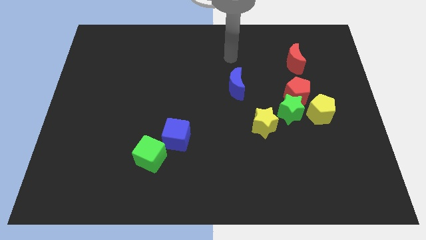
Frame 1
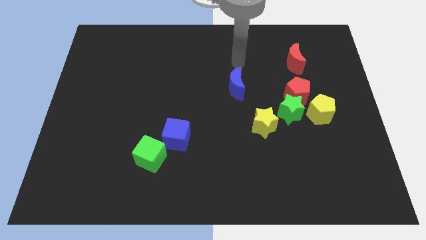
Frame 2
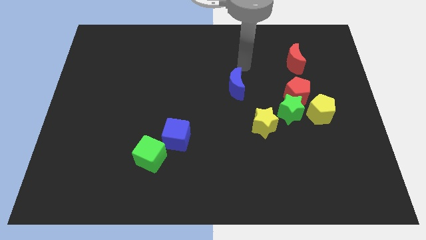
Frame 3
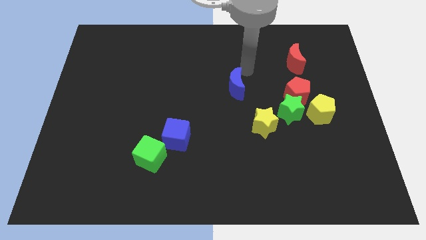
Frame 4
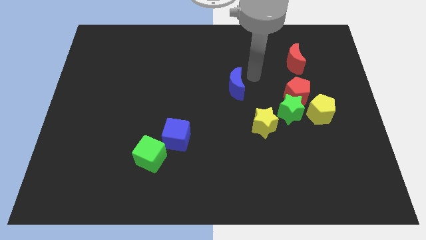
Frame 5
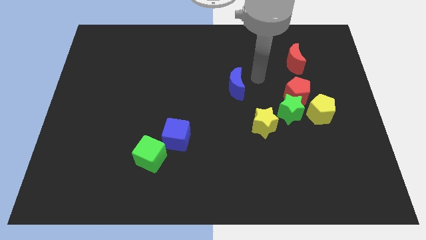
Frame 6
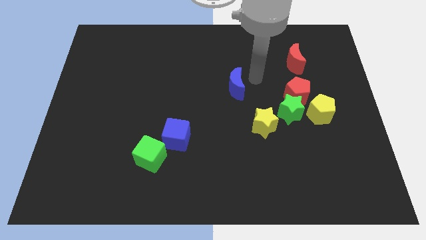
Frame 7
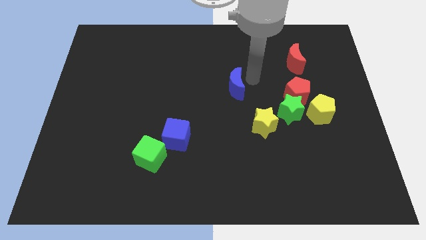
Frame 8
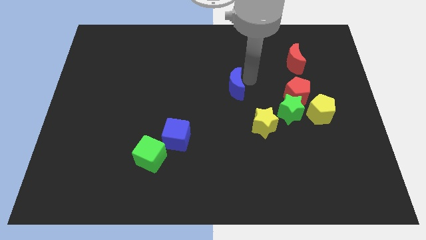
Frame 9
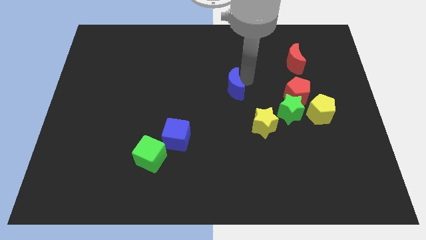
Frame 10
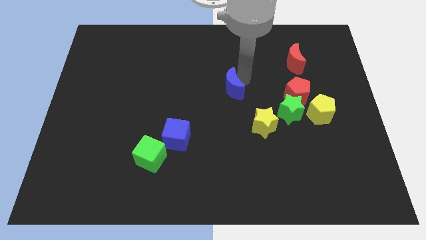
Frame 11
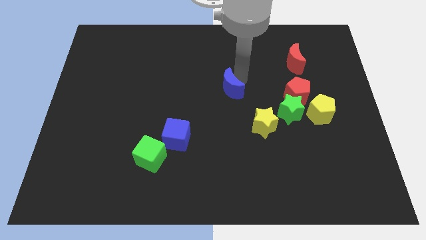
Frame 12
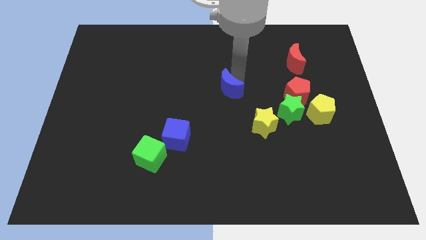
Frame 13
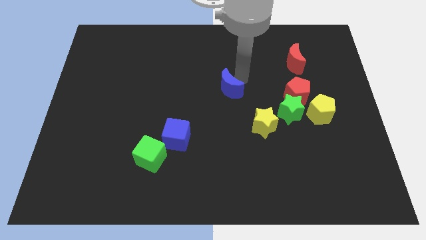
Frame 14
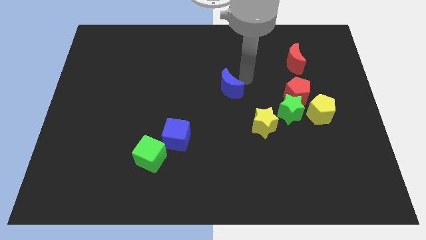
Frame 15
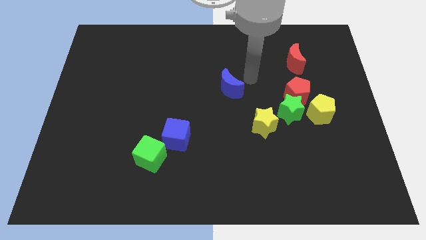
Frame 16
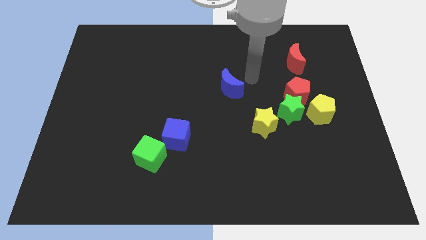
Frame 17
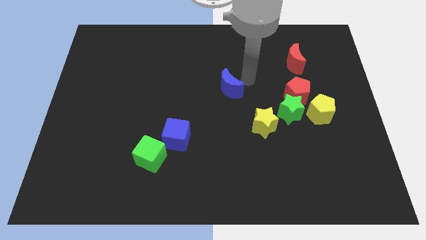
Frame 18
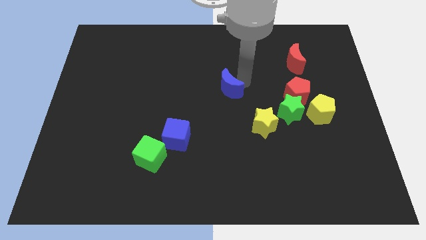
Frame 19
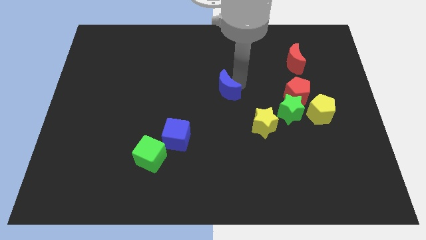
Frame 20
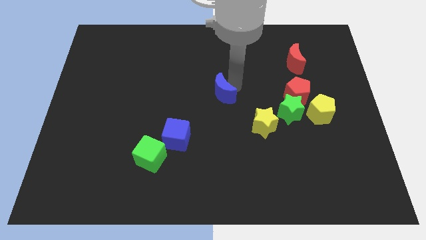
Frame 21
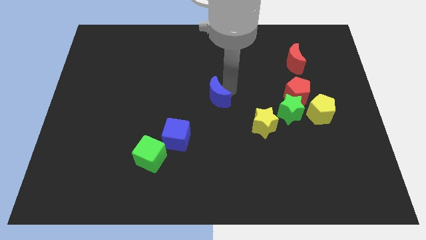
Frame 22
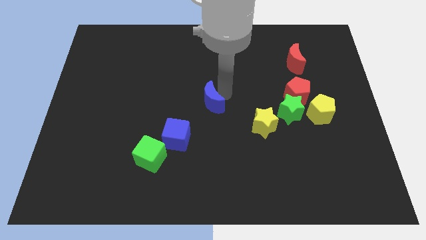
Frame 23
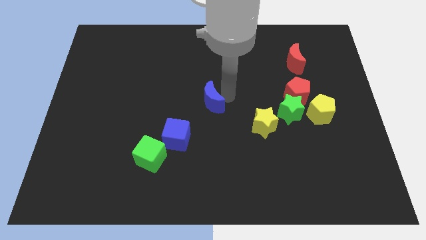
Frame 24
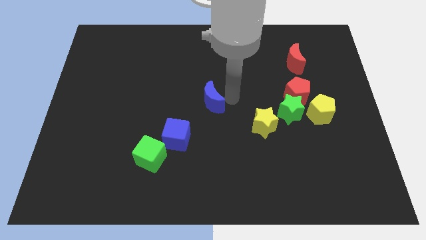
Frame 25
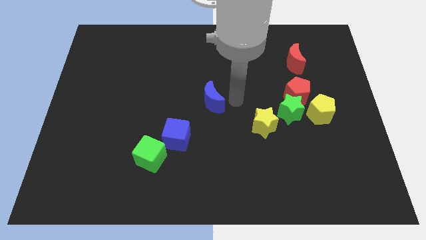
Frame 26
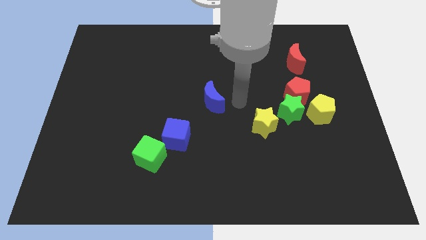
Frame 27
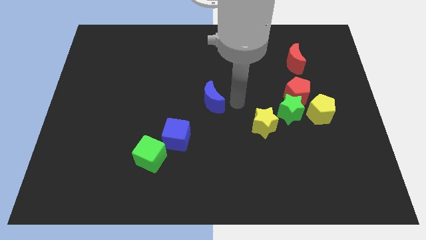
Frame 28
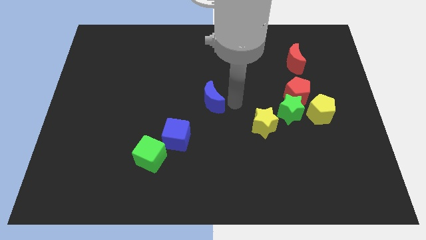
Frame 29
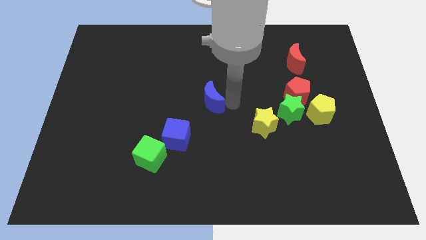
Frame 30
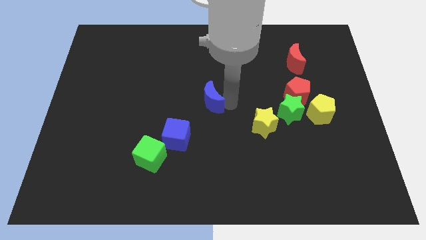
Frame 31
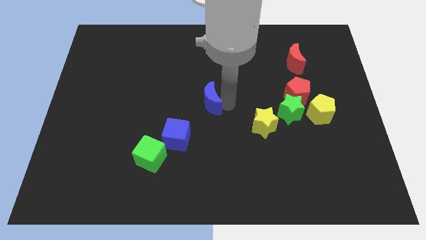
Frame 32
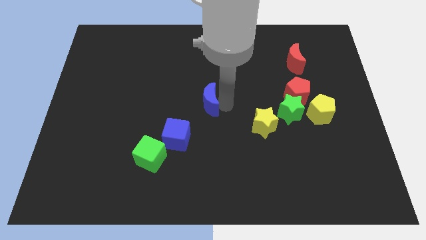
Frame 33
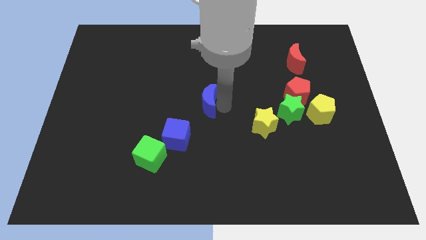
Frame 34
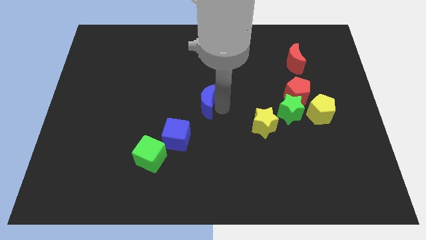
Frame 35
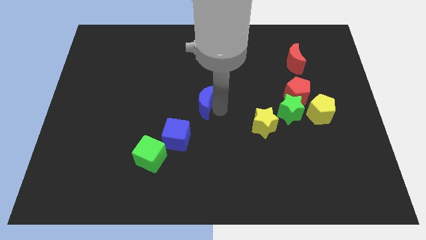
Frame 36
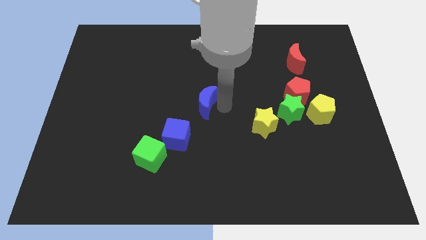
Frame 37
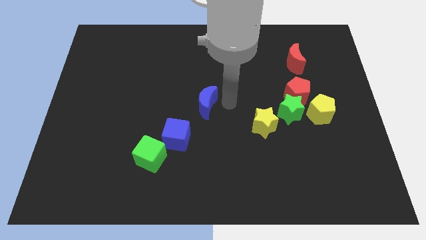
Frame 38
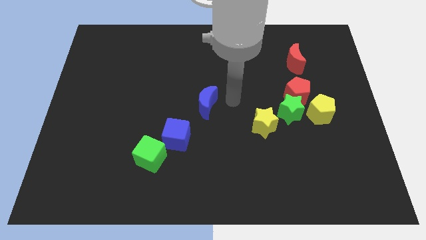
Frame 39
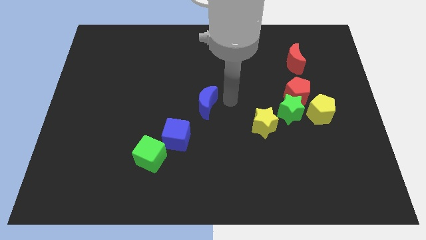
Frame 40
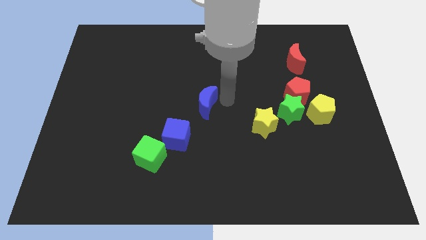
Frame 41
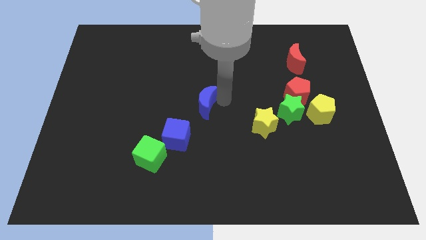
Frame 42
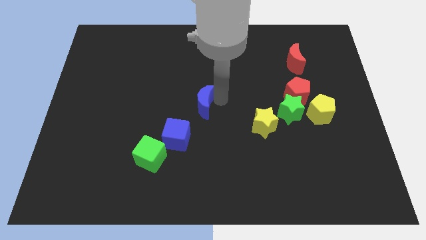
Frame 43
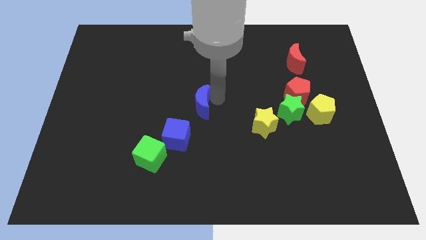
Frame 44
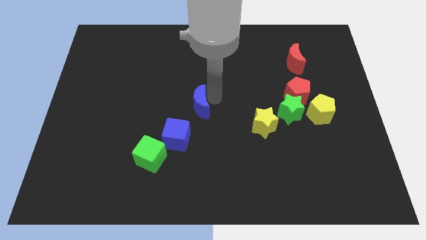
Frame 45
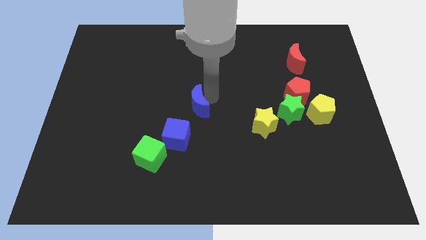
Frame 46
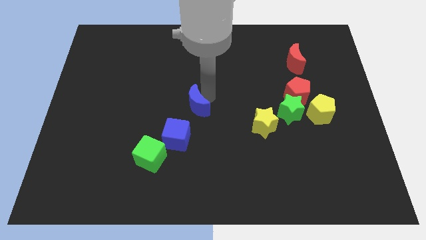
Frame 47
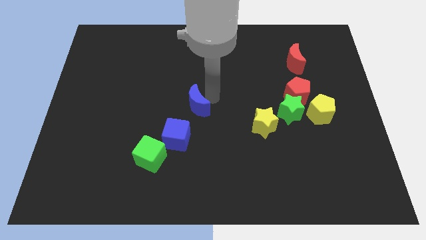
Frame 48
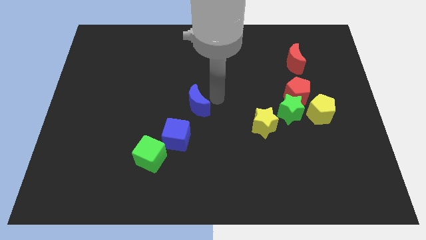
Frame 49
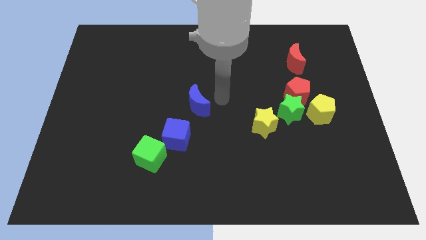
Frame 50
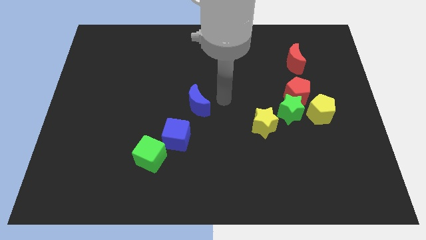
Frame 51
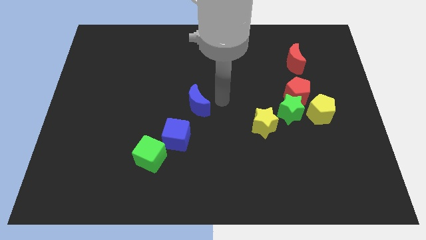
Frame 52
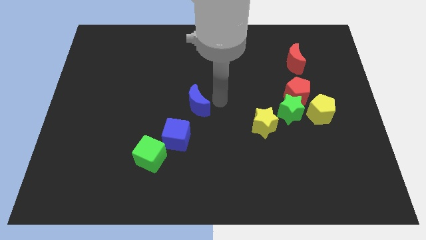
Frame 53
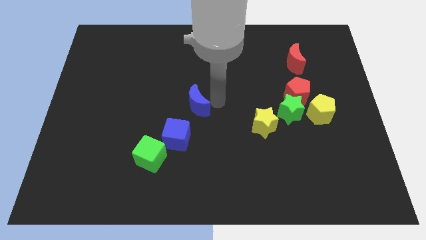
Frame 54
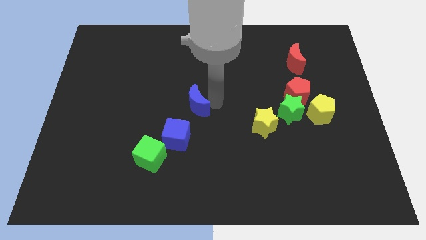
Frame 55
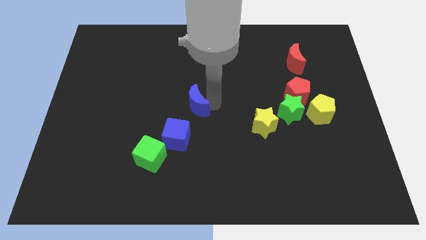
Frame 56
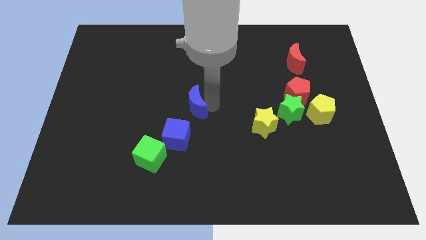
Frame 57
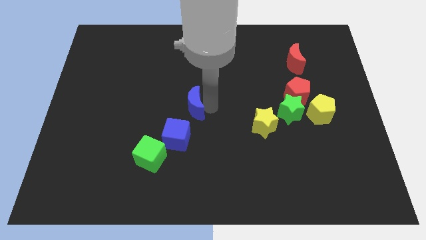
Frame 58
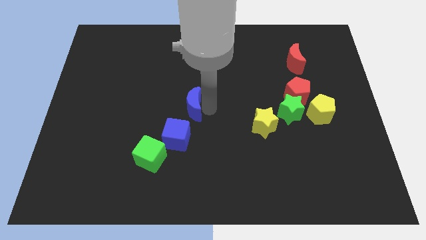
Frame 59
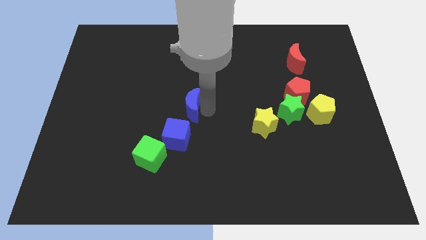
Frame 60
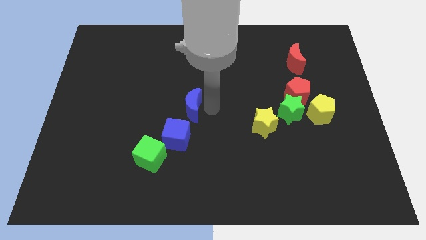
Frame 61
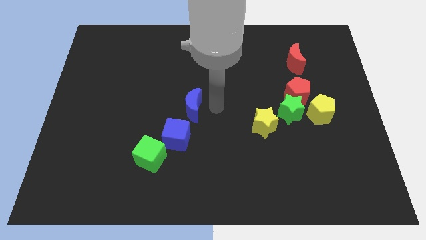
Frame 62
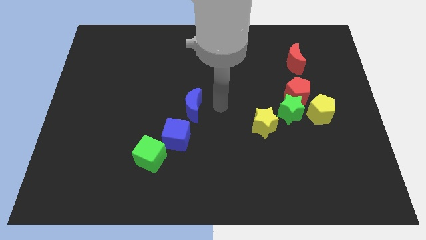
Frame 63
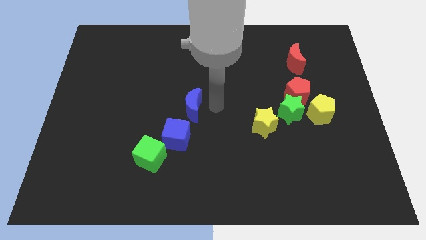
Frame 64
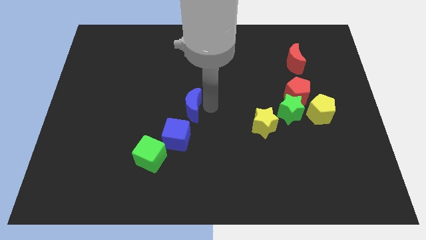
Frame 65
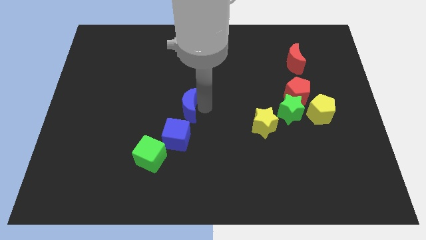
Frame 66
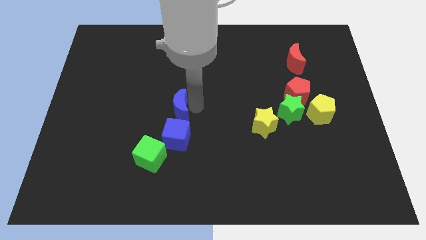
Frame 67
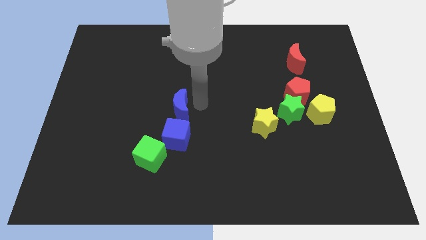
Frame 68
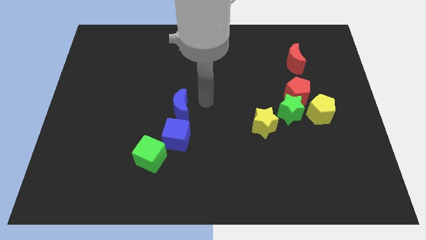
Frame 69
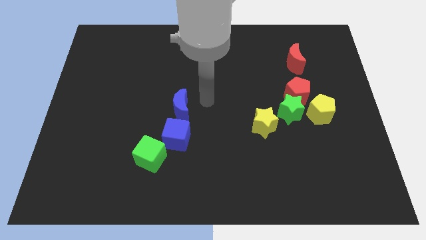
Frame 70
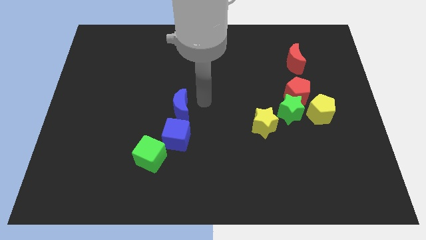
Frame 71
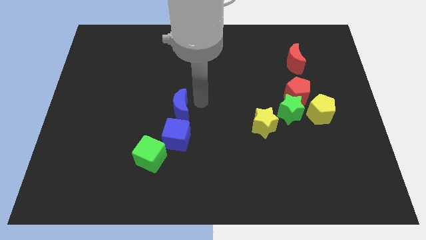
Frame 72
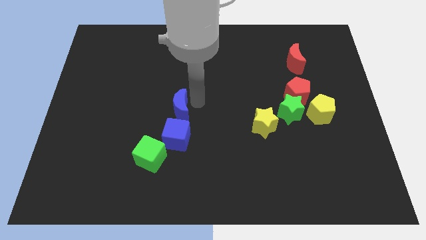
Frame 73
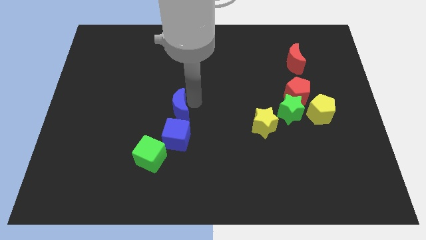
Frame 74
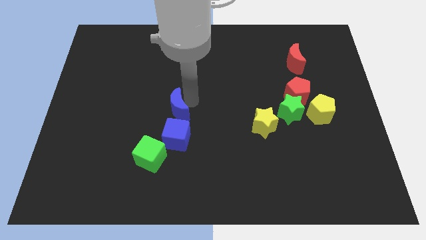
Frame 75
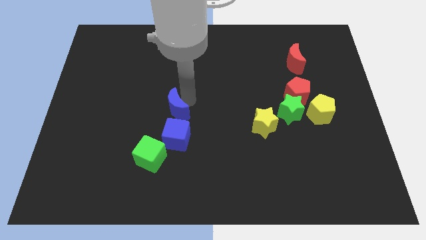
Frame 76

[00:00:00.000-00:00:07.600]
slide the blue moon above the green cube
